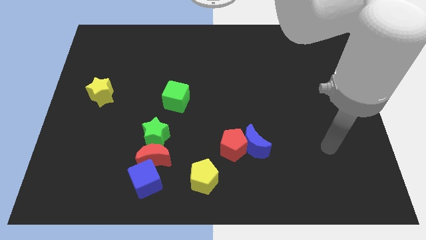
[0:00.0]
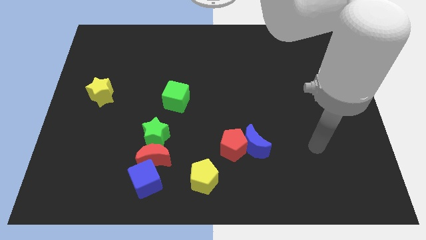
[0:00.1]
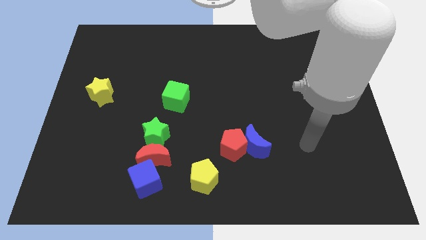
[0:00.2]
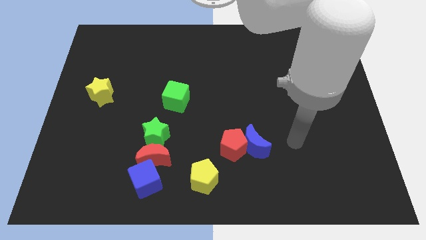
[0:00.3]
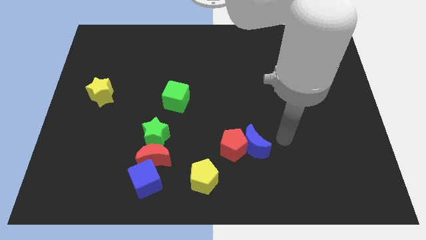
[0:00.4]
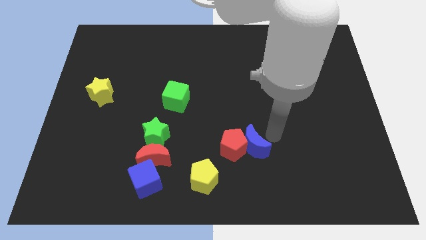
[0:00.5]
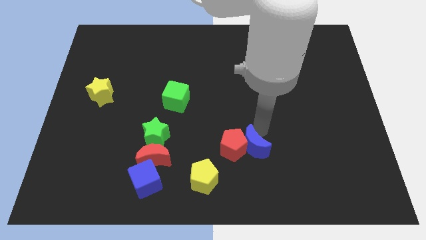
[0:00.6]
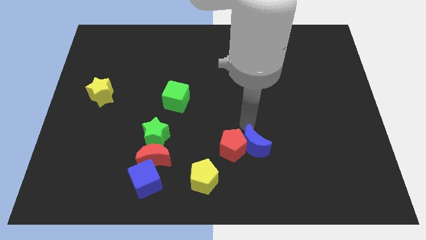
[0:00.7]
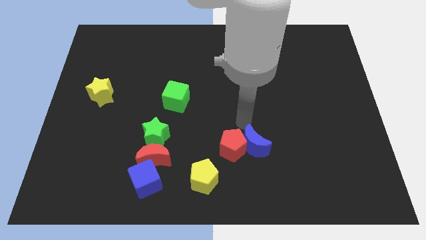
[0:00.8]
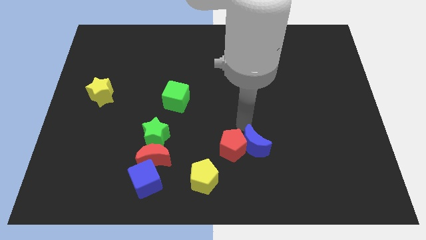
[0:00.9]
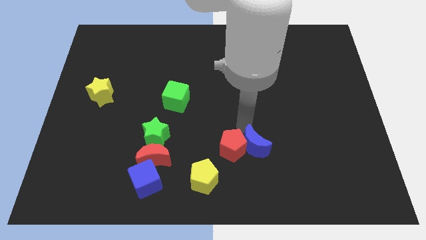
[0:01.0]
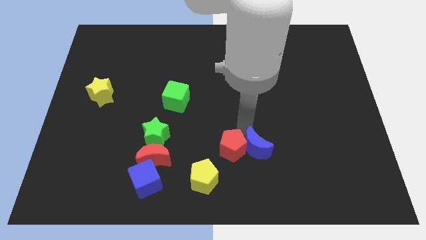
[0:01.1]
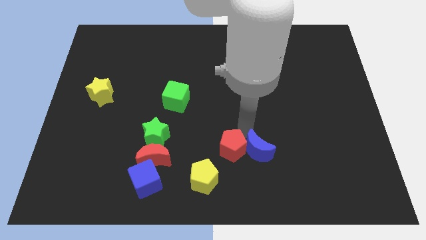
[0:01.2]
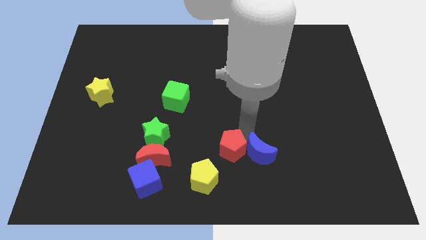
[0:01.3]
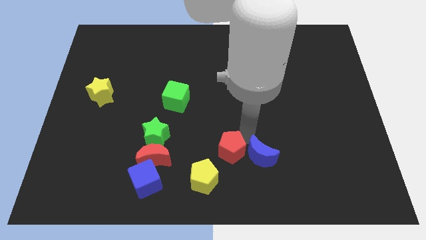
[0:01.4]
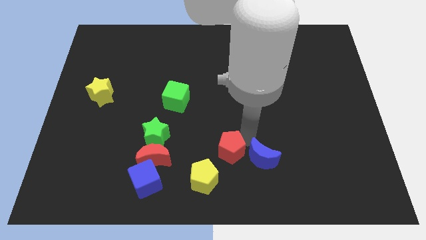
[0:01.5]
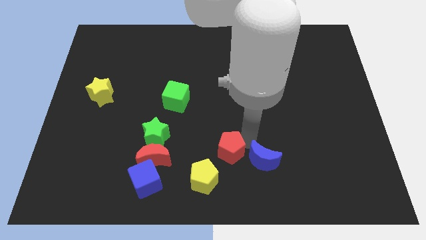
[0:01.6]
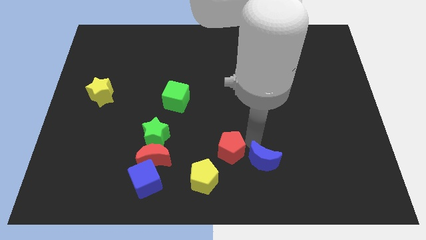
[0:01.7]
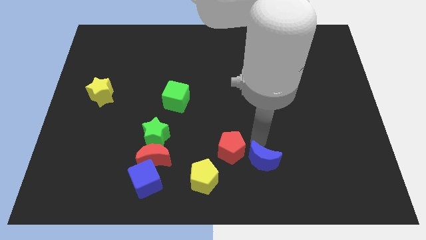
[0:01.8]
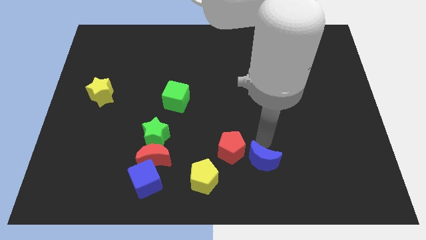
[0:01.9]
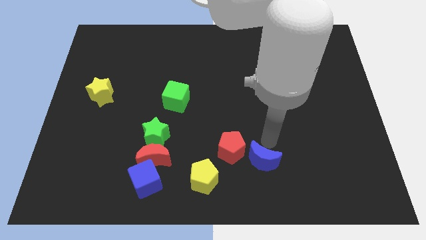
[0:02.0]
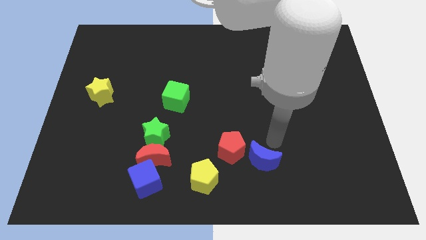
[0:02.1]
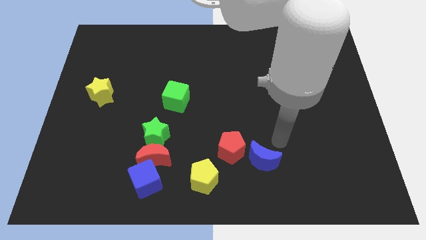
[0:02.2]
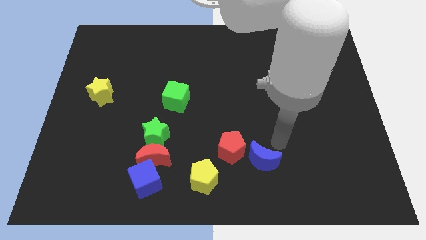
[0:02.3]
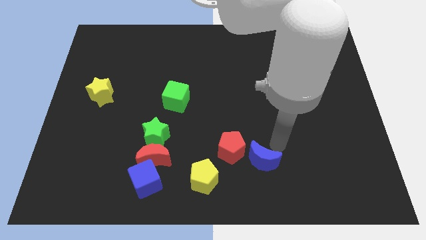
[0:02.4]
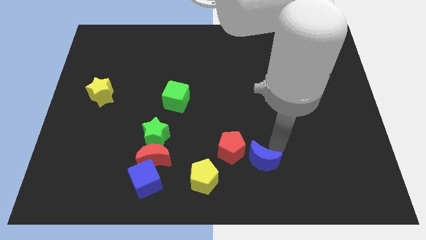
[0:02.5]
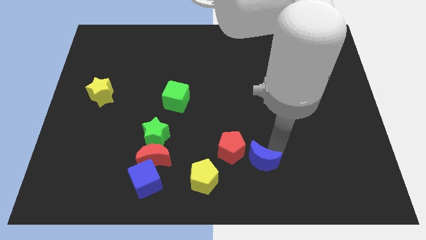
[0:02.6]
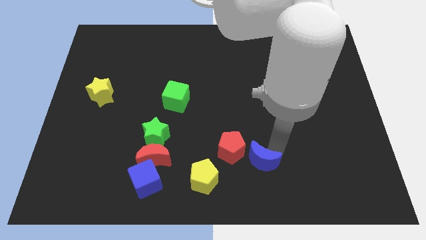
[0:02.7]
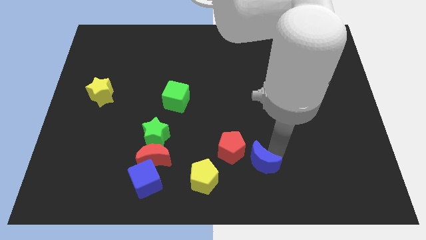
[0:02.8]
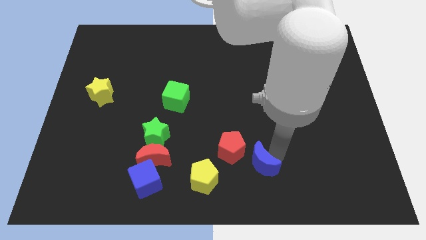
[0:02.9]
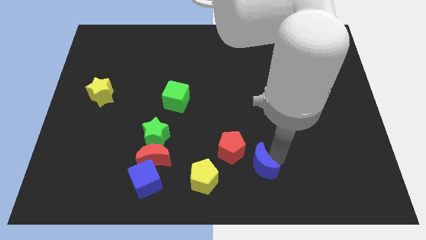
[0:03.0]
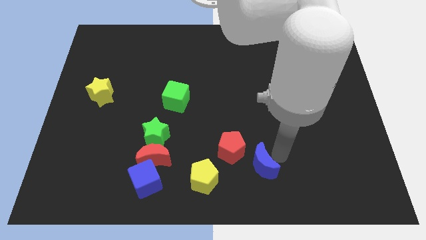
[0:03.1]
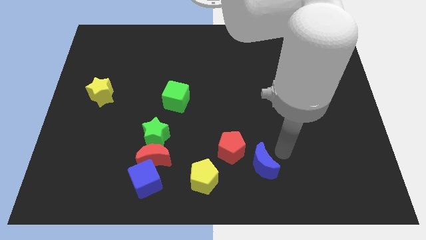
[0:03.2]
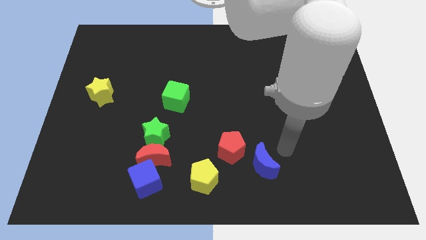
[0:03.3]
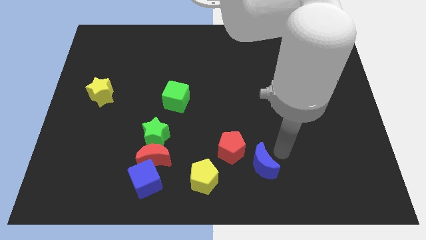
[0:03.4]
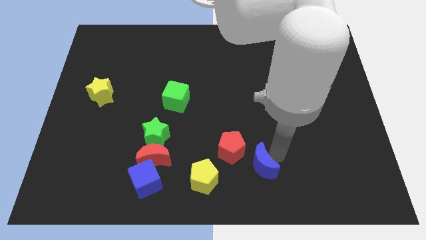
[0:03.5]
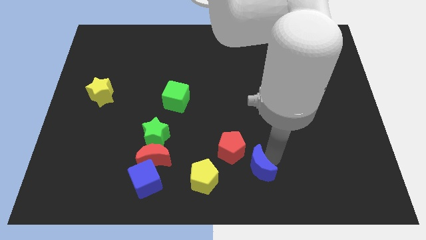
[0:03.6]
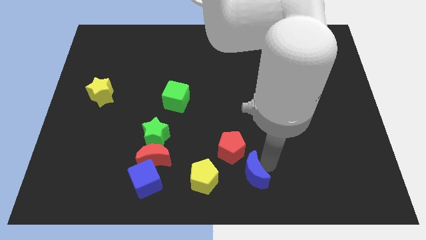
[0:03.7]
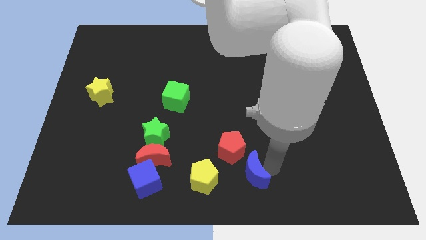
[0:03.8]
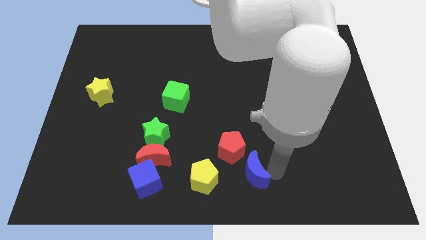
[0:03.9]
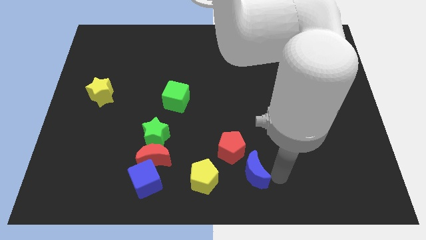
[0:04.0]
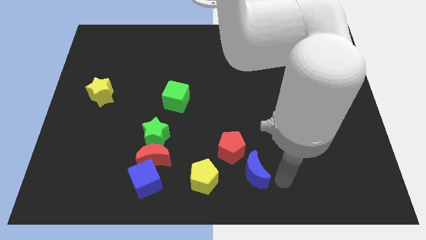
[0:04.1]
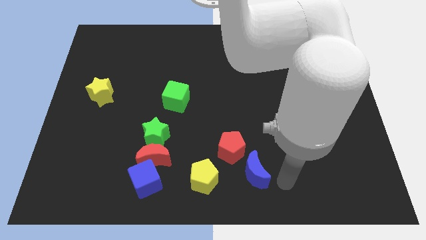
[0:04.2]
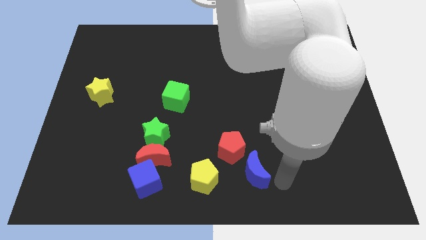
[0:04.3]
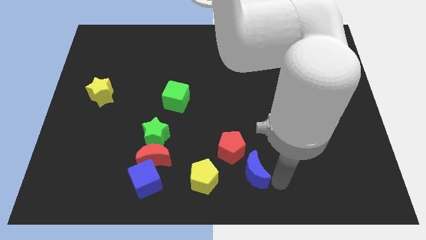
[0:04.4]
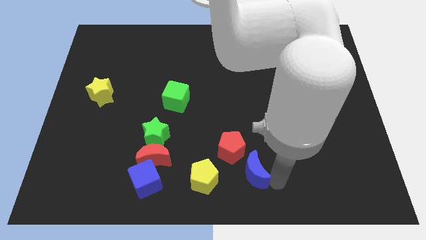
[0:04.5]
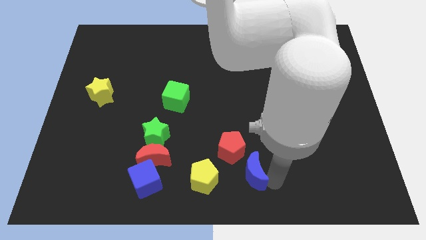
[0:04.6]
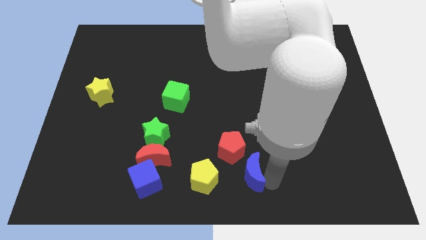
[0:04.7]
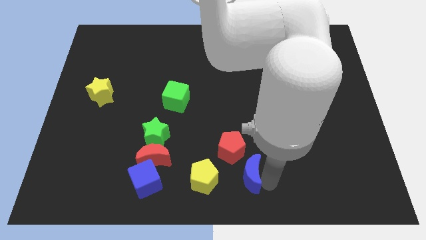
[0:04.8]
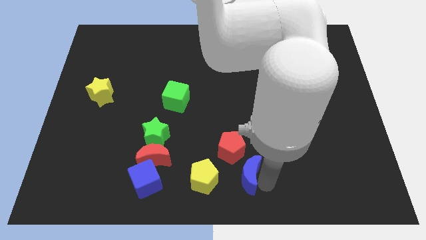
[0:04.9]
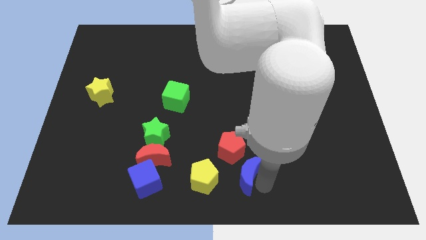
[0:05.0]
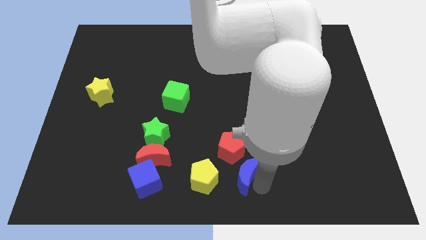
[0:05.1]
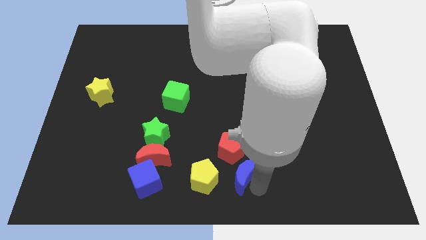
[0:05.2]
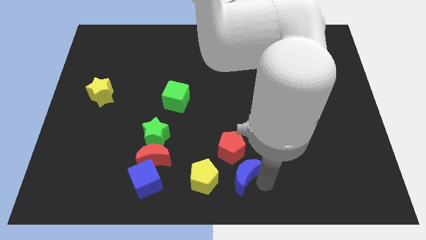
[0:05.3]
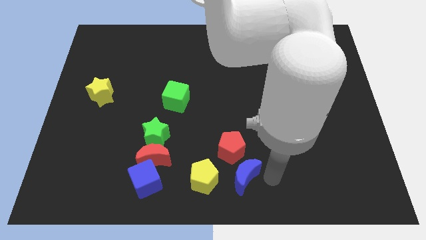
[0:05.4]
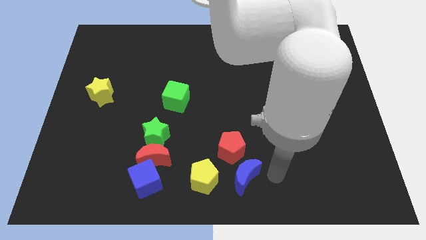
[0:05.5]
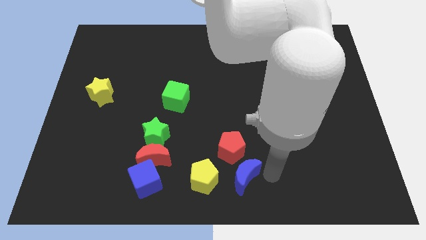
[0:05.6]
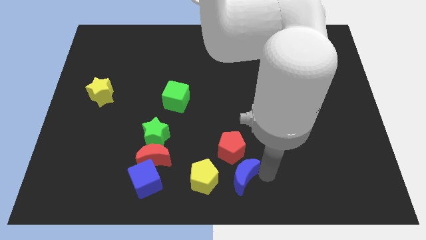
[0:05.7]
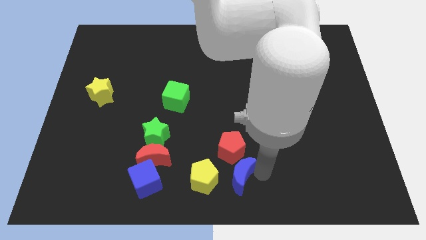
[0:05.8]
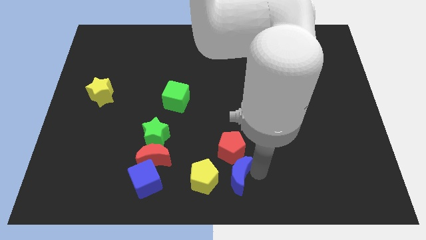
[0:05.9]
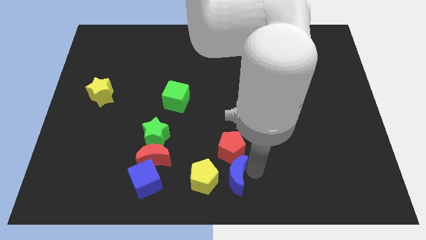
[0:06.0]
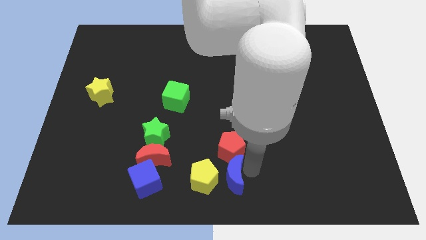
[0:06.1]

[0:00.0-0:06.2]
slide the blue moon towards the yellow pentagon

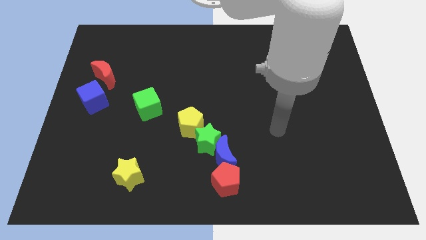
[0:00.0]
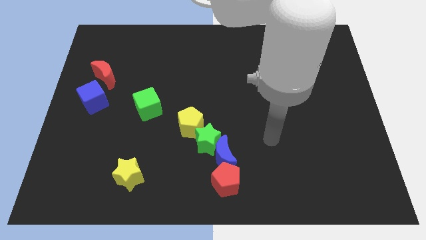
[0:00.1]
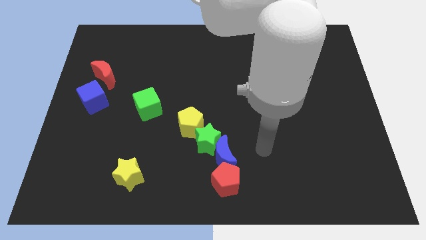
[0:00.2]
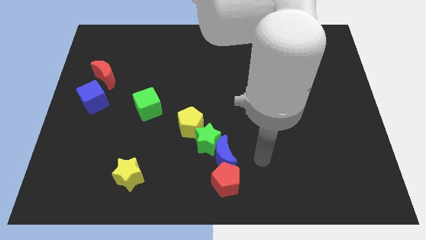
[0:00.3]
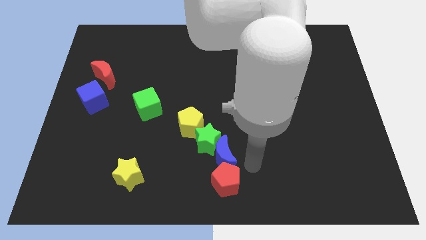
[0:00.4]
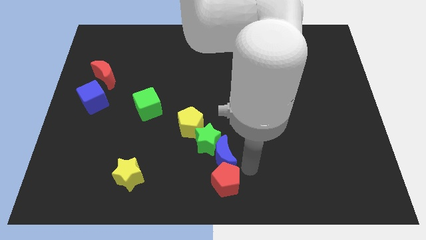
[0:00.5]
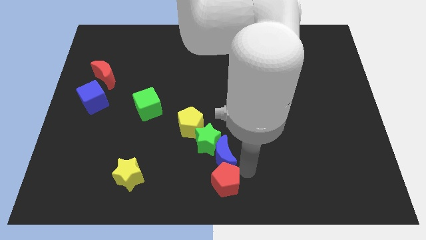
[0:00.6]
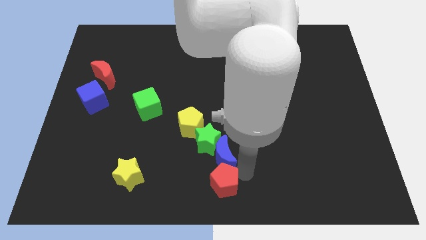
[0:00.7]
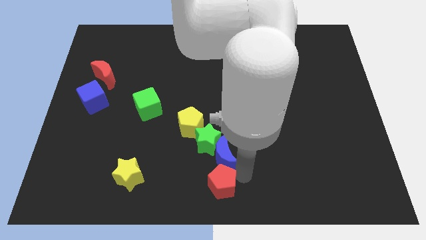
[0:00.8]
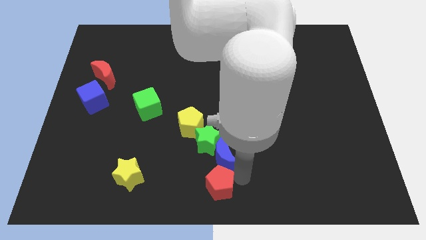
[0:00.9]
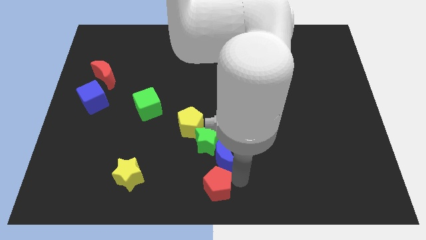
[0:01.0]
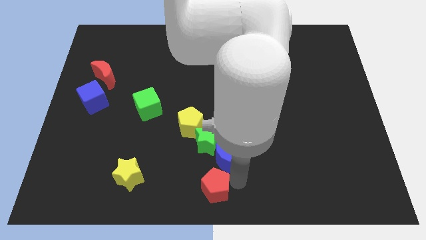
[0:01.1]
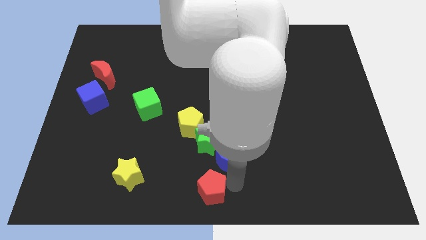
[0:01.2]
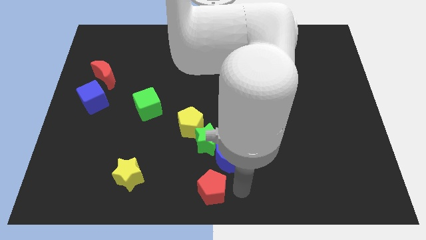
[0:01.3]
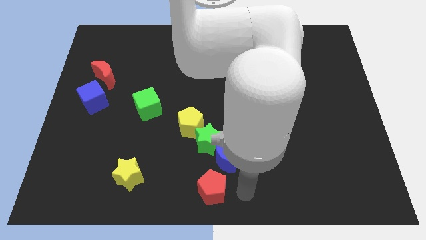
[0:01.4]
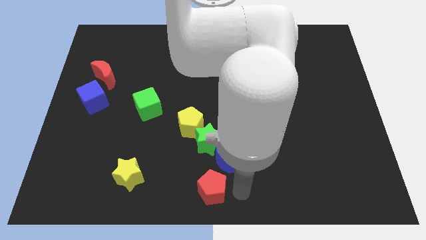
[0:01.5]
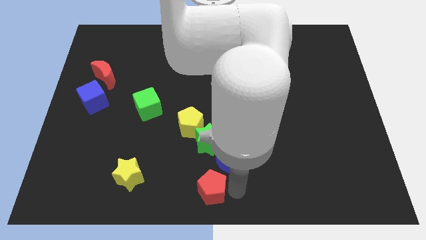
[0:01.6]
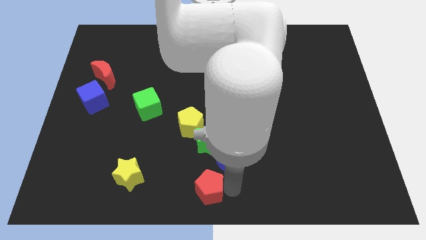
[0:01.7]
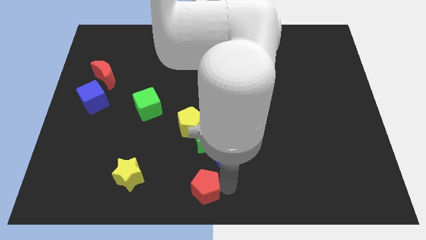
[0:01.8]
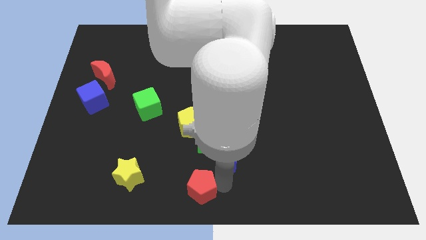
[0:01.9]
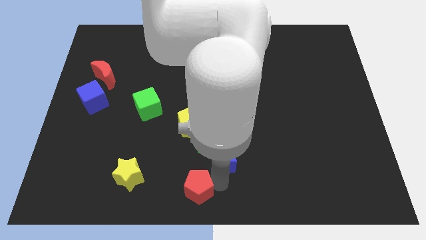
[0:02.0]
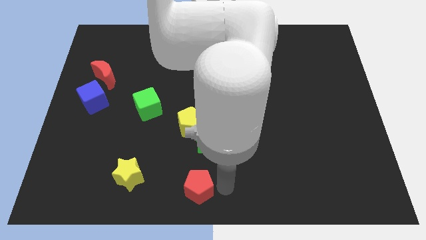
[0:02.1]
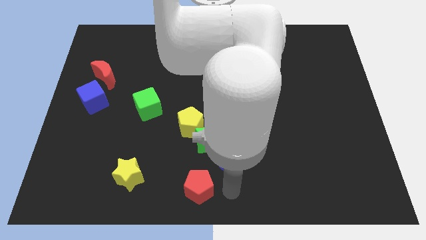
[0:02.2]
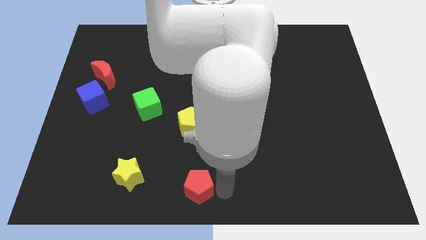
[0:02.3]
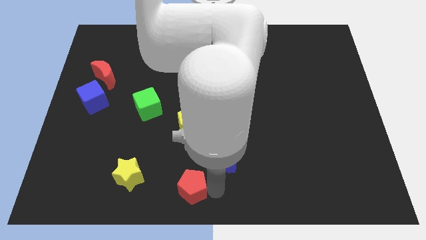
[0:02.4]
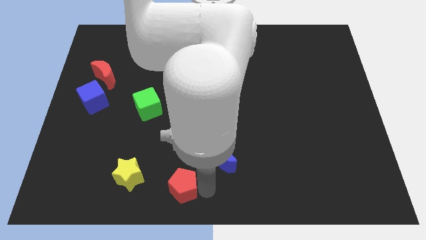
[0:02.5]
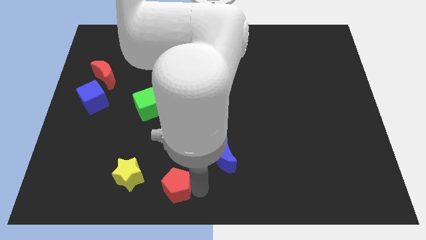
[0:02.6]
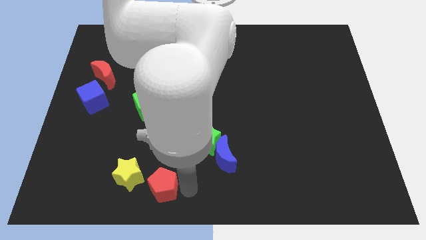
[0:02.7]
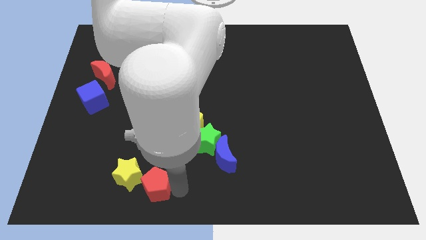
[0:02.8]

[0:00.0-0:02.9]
put the red pentagon towards the yellow star
